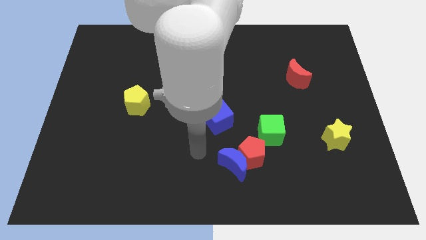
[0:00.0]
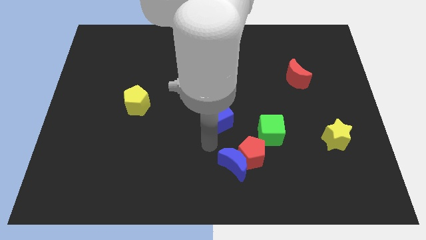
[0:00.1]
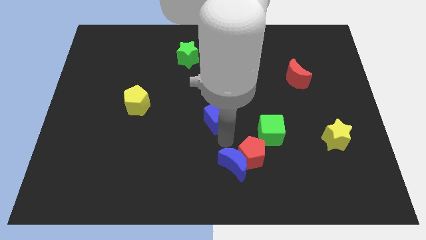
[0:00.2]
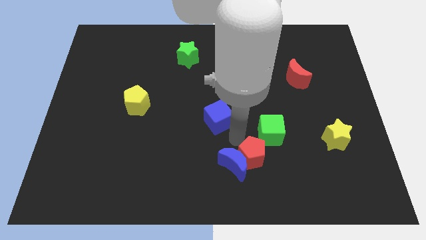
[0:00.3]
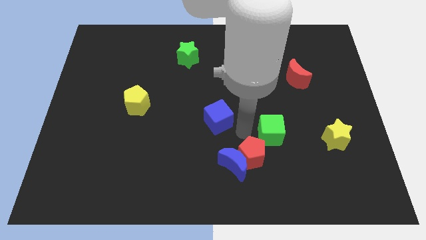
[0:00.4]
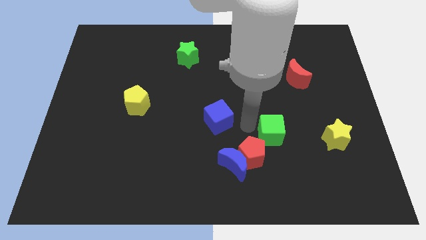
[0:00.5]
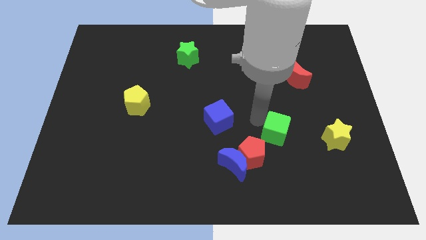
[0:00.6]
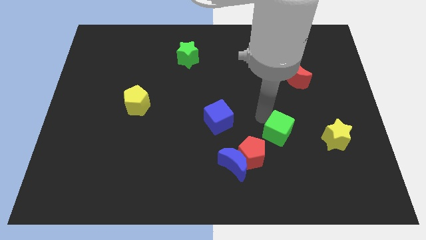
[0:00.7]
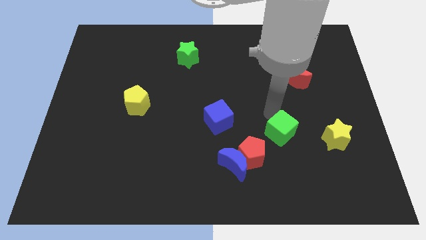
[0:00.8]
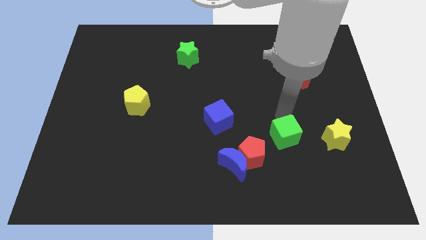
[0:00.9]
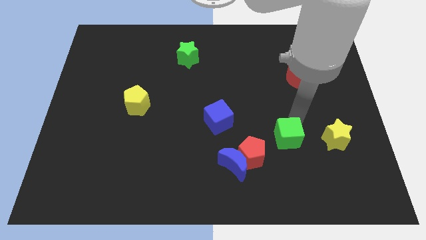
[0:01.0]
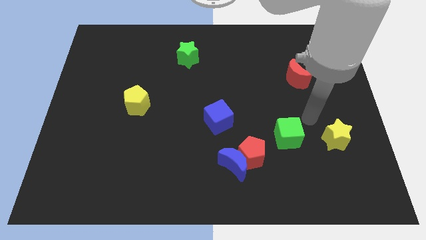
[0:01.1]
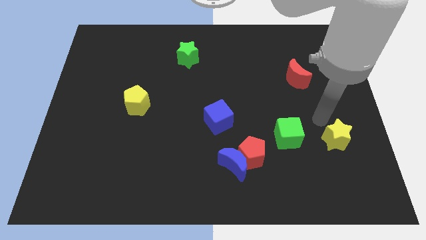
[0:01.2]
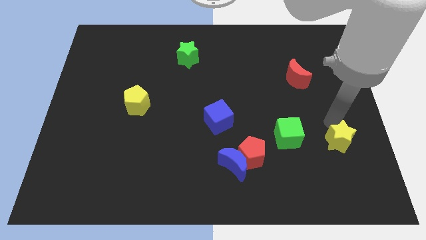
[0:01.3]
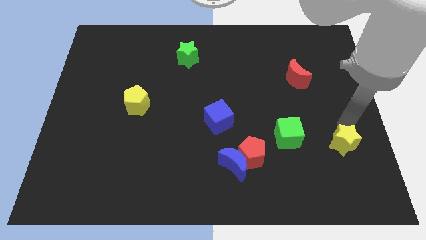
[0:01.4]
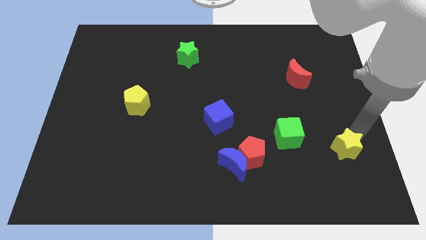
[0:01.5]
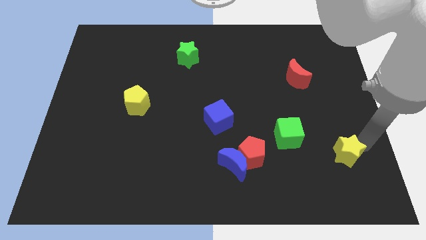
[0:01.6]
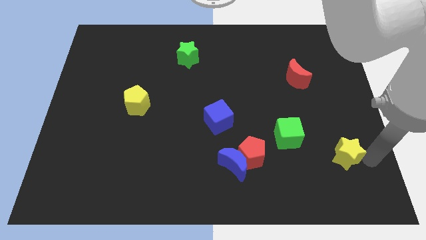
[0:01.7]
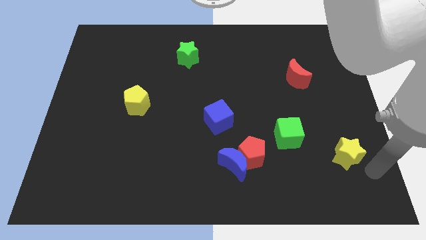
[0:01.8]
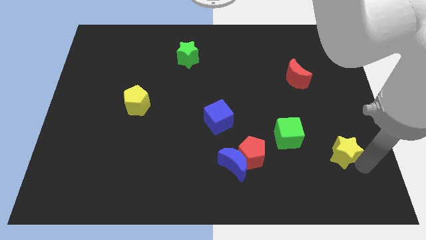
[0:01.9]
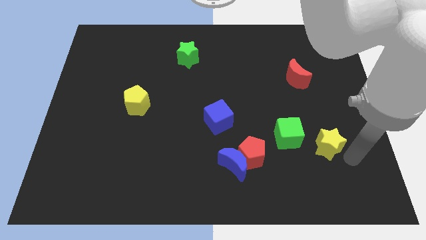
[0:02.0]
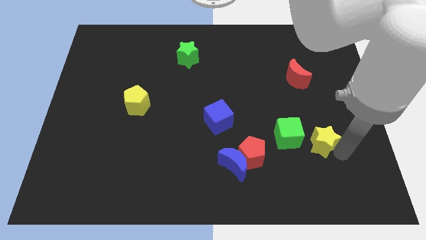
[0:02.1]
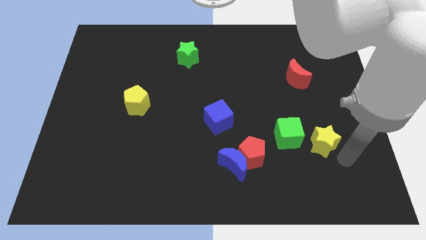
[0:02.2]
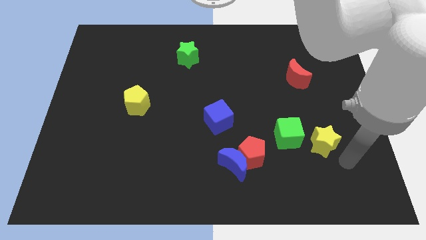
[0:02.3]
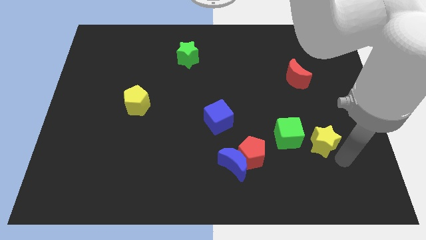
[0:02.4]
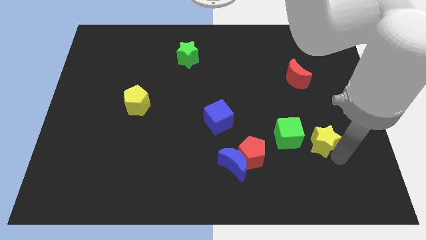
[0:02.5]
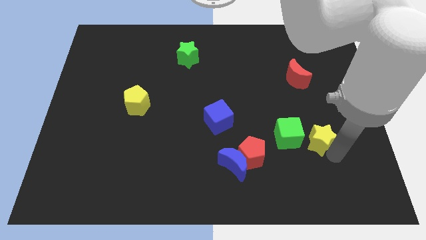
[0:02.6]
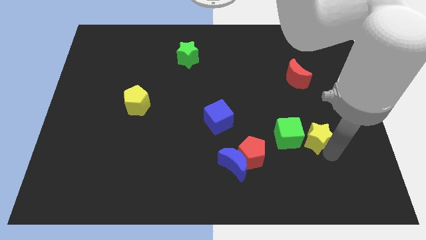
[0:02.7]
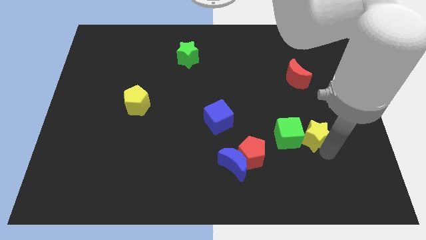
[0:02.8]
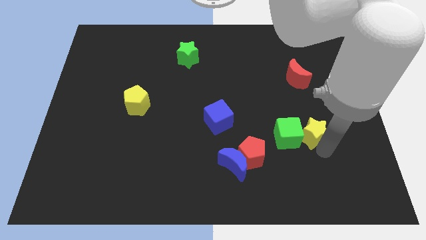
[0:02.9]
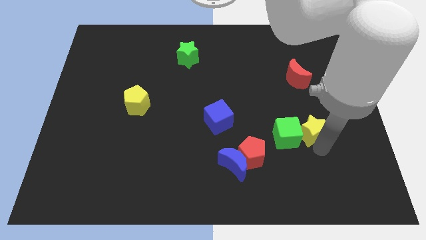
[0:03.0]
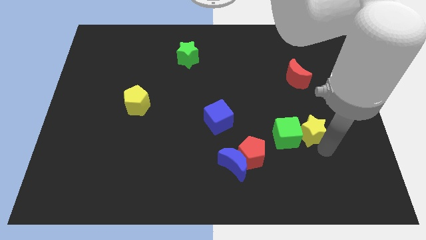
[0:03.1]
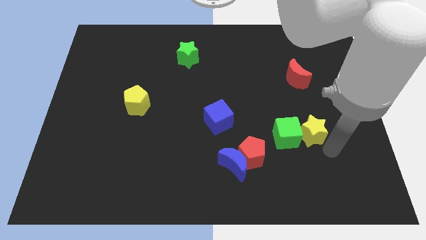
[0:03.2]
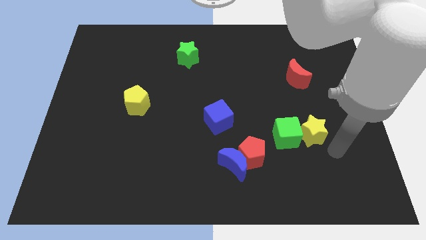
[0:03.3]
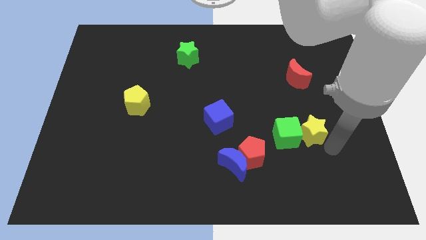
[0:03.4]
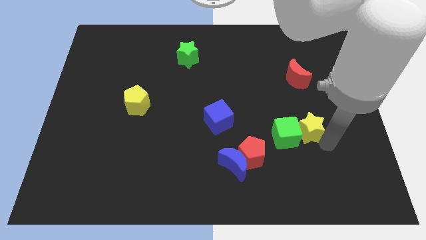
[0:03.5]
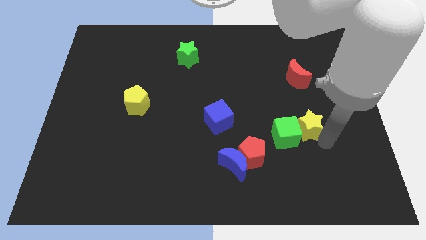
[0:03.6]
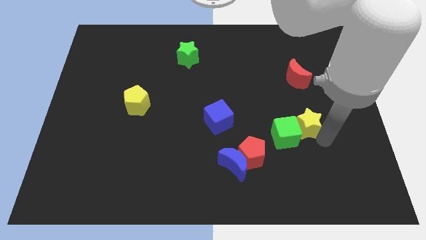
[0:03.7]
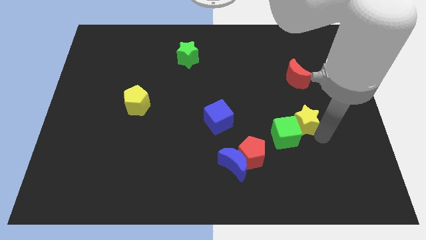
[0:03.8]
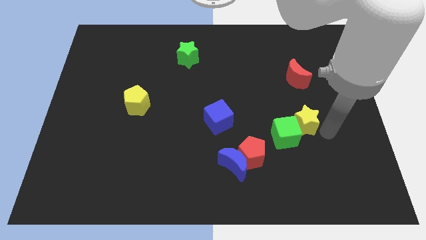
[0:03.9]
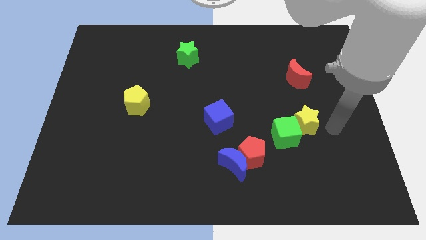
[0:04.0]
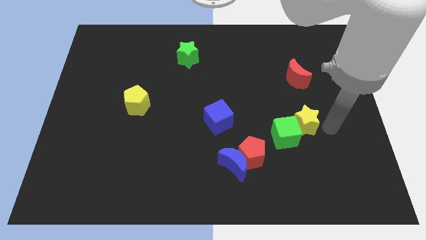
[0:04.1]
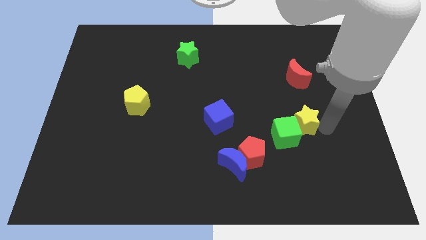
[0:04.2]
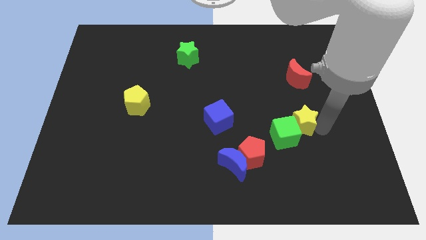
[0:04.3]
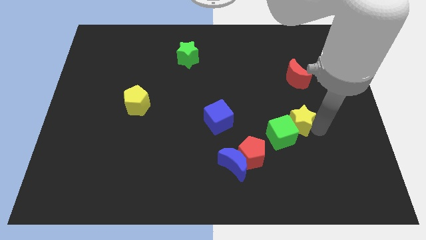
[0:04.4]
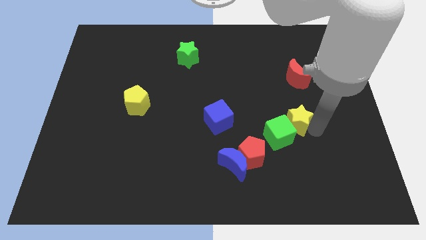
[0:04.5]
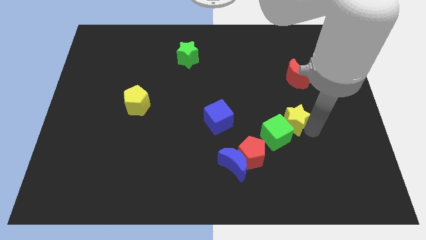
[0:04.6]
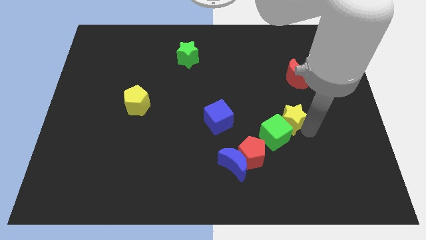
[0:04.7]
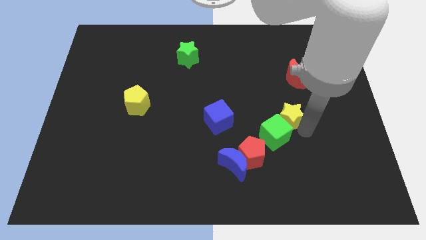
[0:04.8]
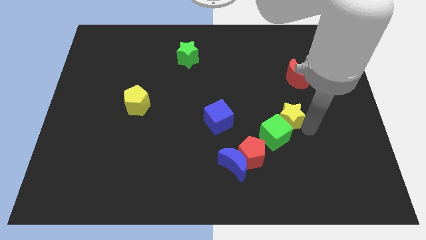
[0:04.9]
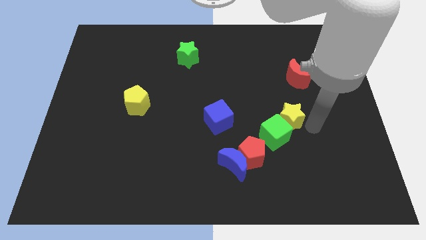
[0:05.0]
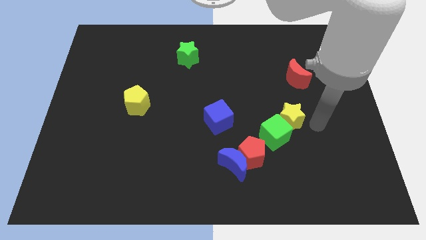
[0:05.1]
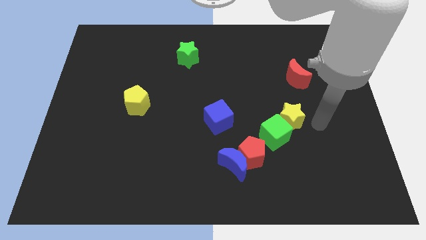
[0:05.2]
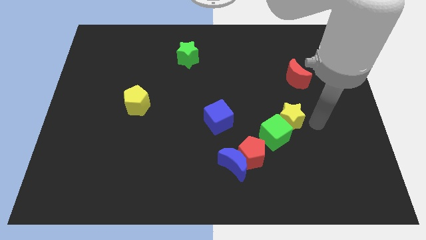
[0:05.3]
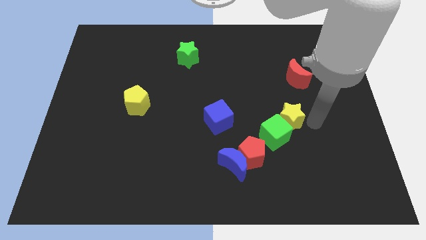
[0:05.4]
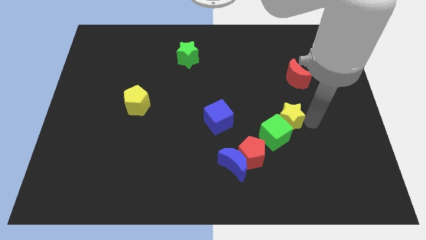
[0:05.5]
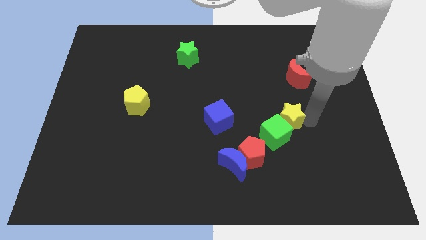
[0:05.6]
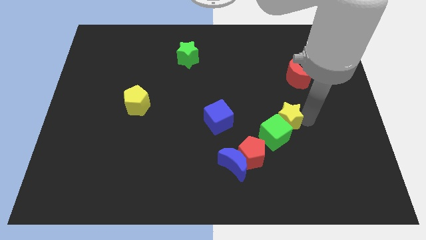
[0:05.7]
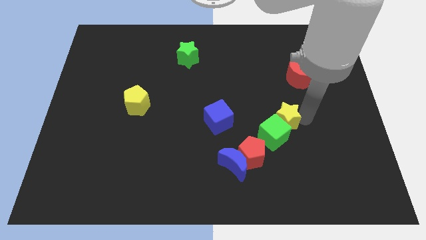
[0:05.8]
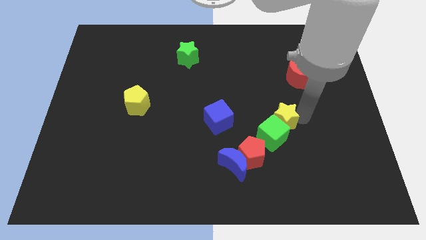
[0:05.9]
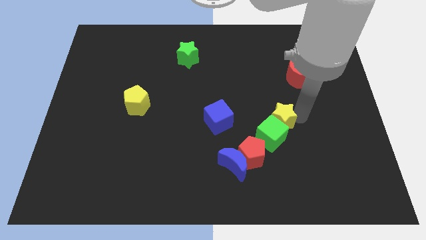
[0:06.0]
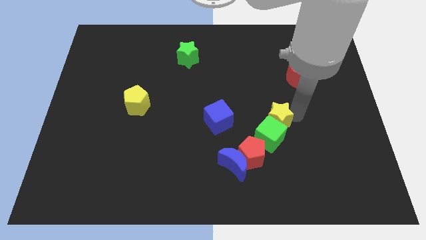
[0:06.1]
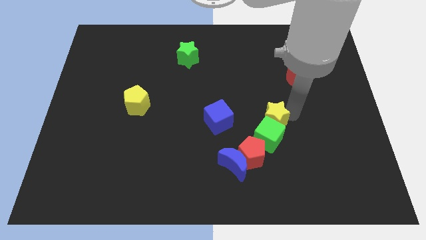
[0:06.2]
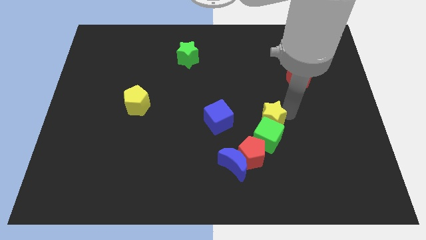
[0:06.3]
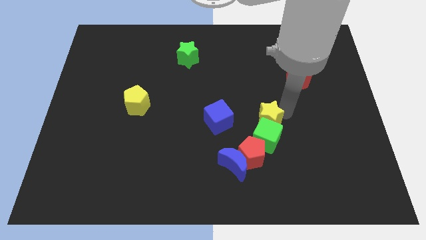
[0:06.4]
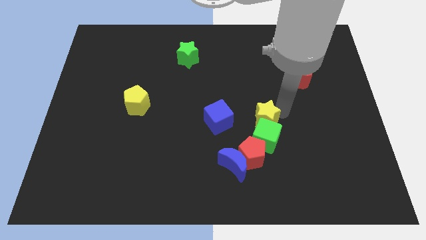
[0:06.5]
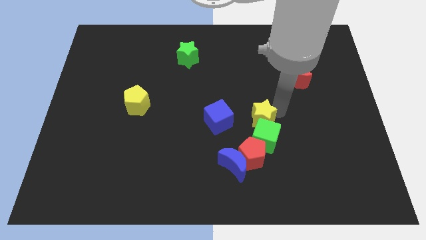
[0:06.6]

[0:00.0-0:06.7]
push the yellow star to the center of the board

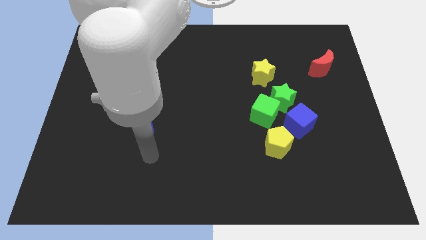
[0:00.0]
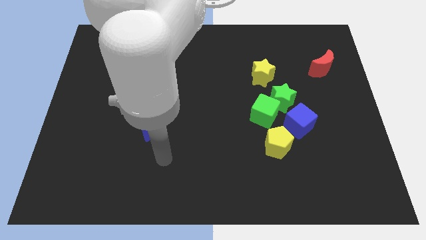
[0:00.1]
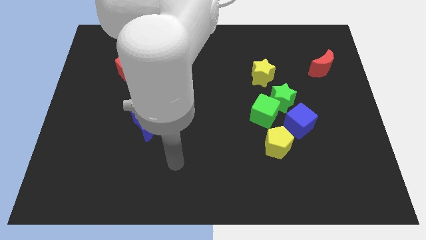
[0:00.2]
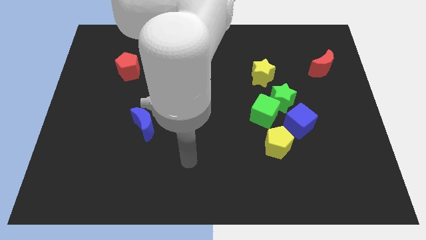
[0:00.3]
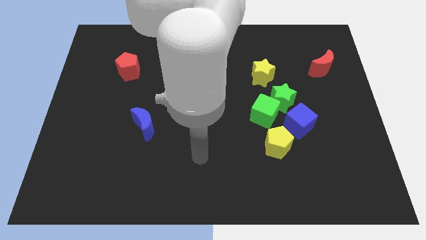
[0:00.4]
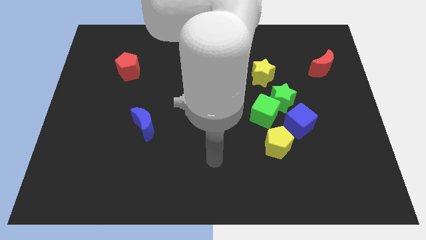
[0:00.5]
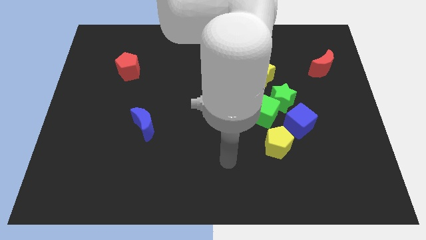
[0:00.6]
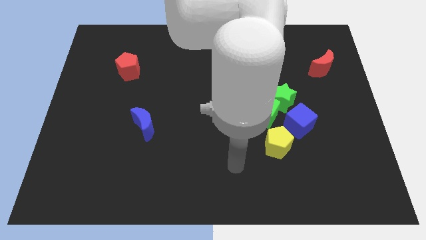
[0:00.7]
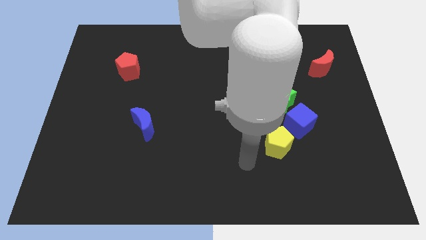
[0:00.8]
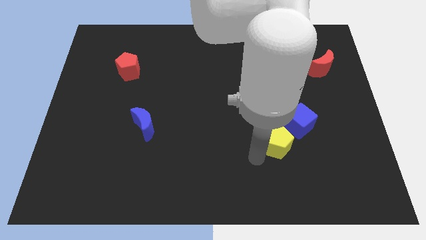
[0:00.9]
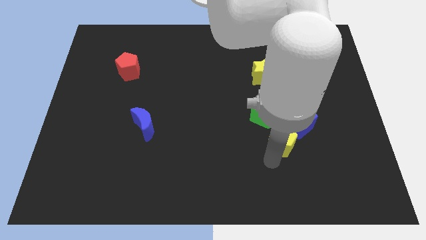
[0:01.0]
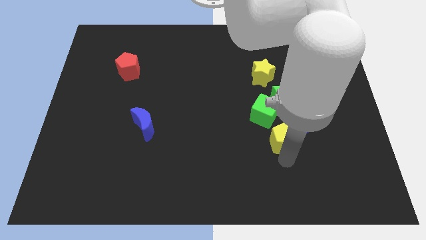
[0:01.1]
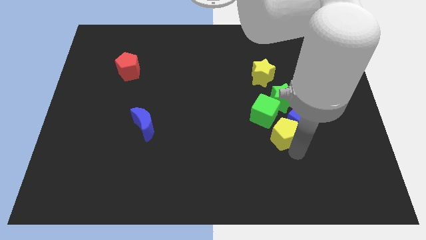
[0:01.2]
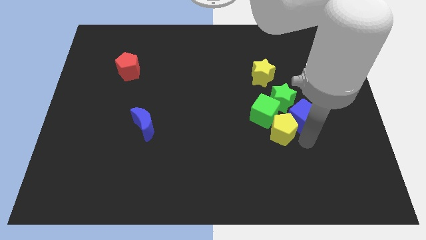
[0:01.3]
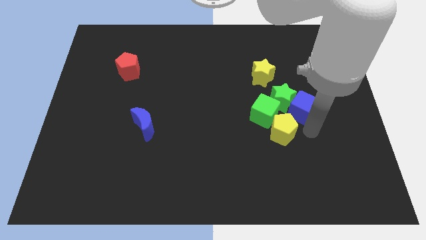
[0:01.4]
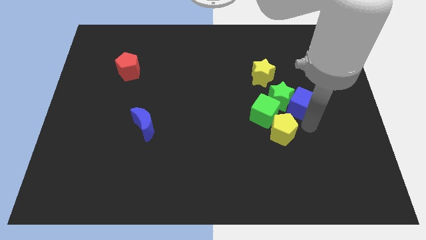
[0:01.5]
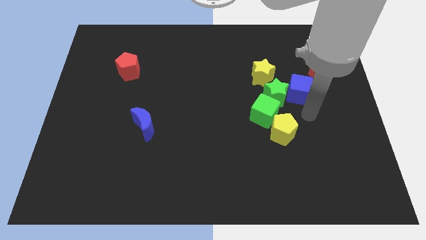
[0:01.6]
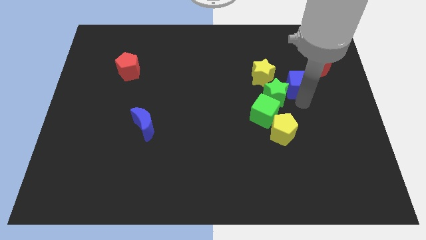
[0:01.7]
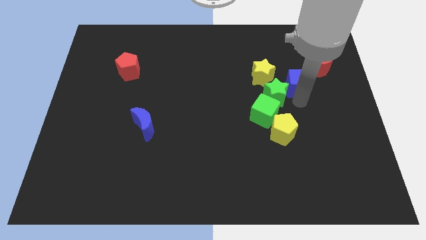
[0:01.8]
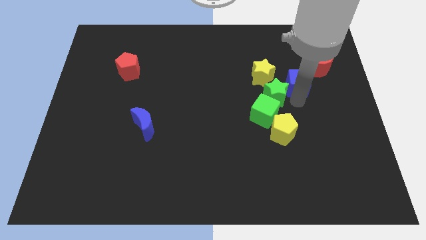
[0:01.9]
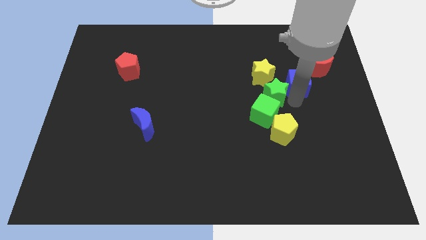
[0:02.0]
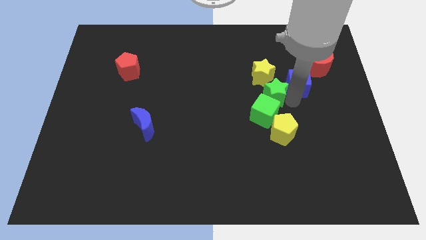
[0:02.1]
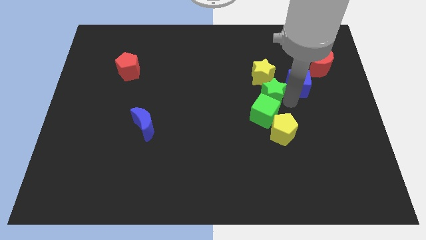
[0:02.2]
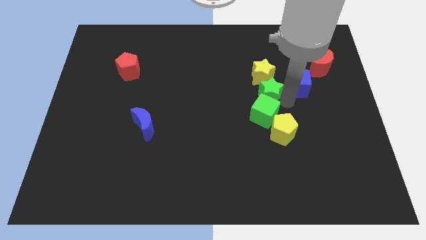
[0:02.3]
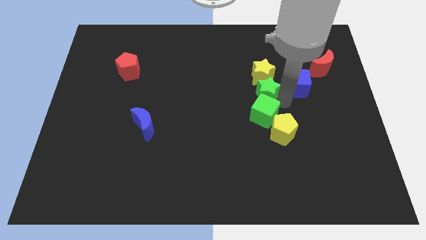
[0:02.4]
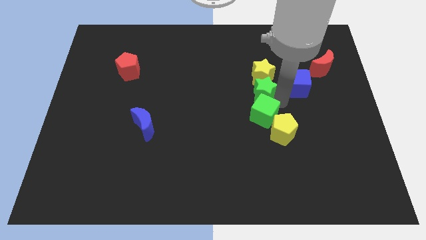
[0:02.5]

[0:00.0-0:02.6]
put the green star to the center of the board
